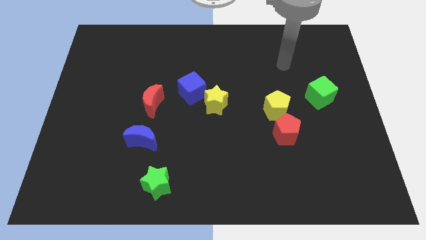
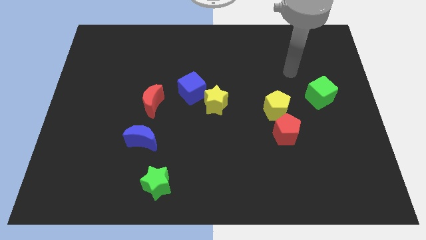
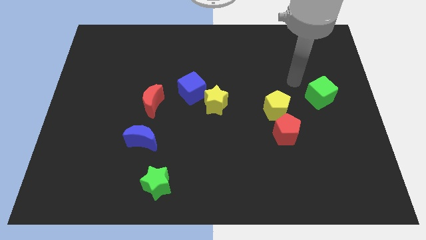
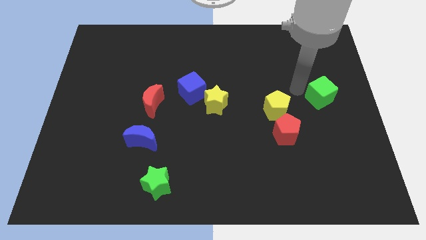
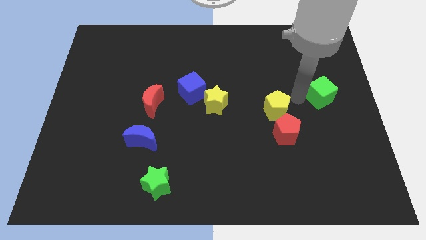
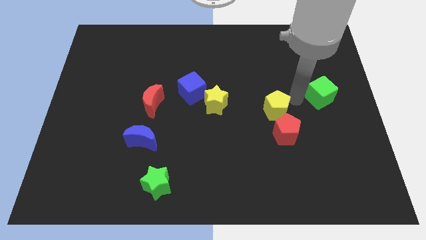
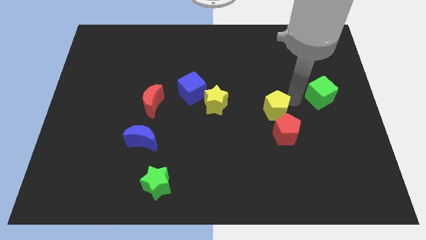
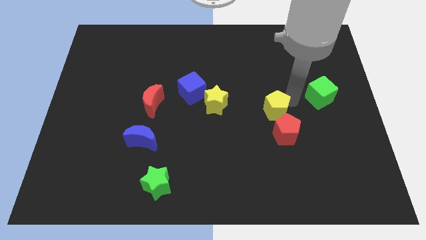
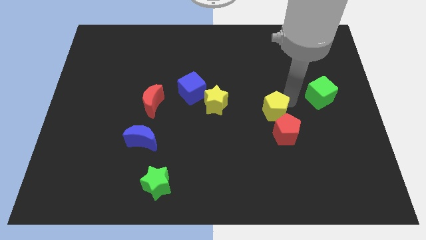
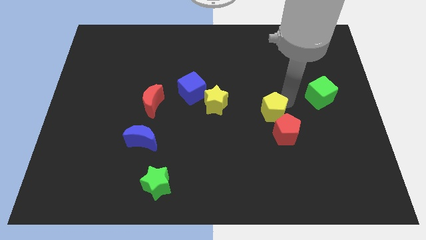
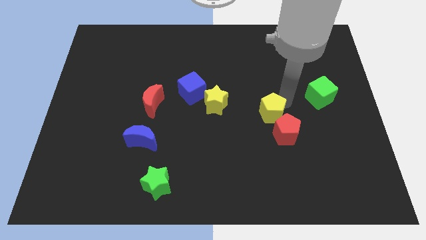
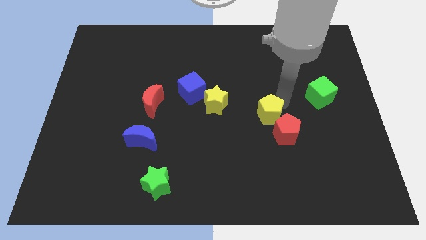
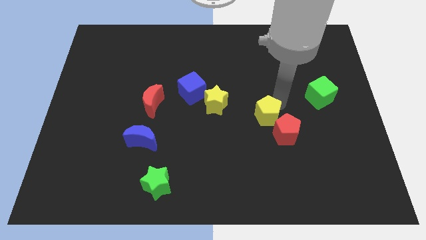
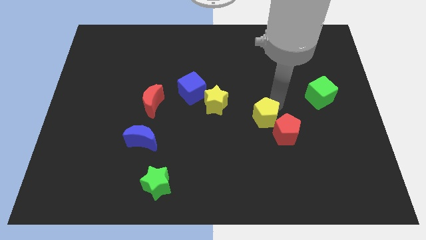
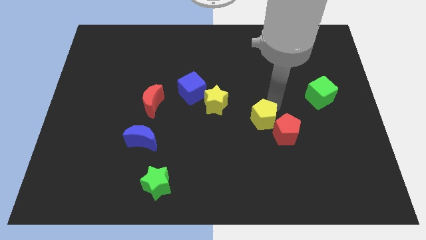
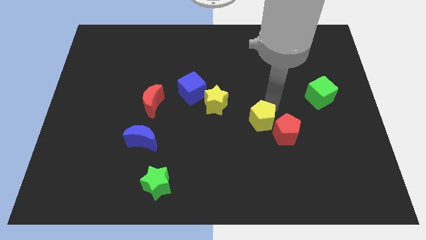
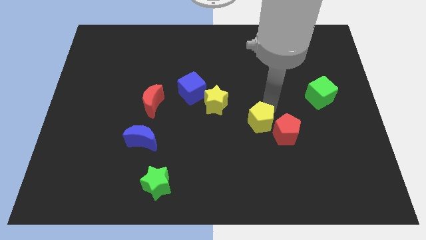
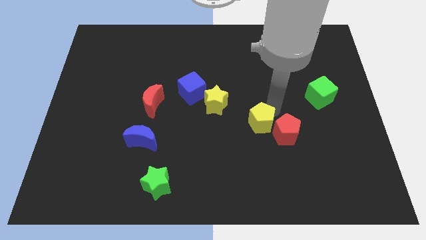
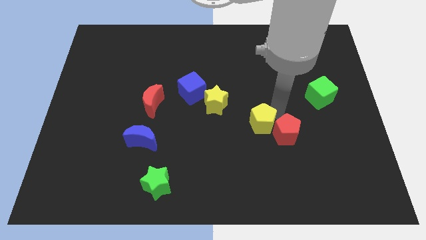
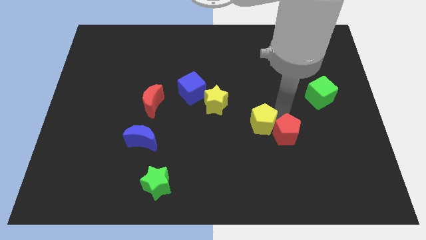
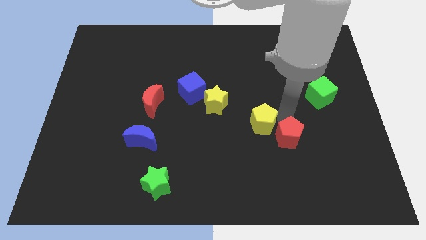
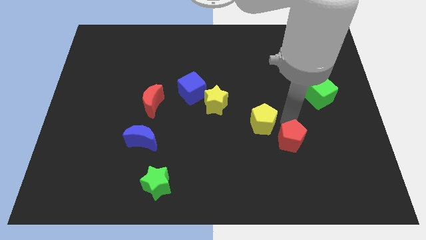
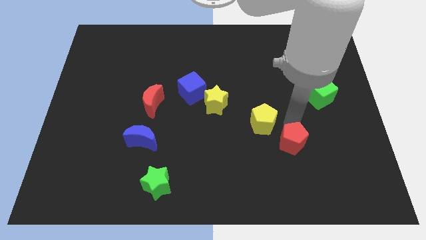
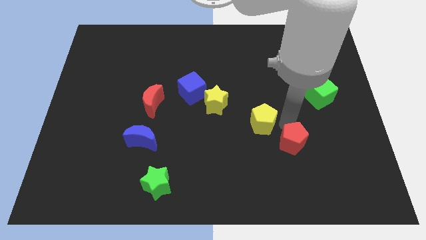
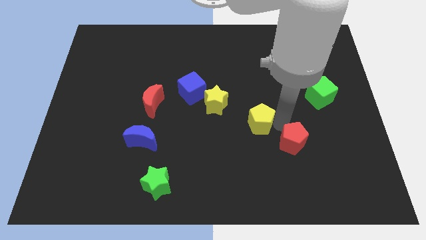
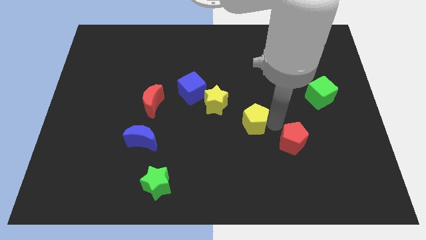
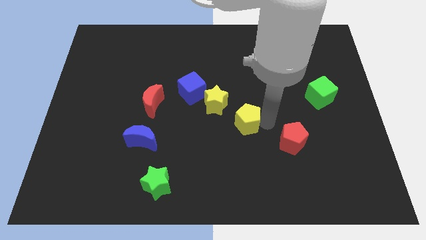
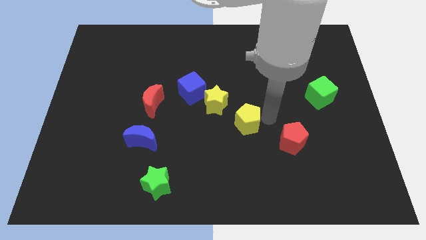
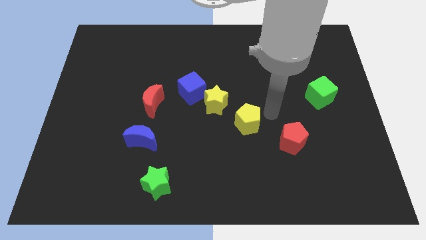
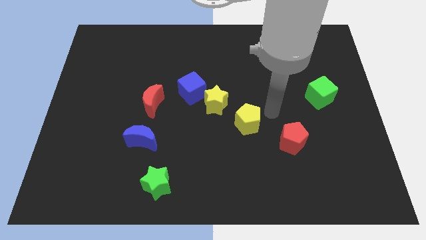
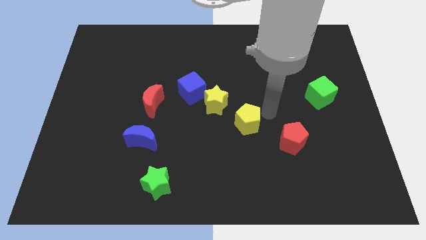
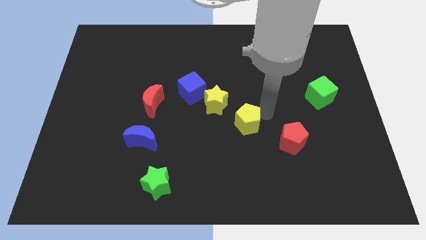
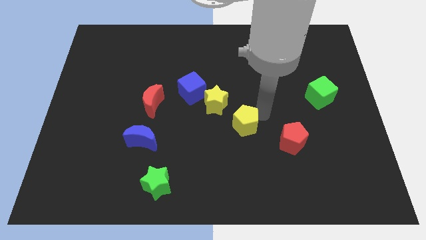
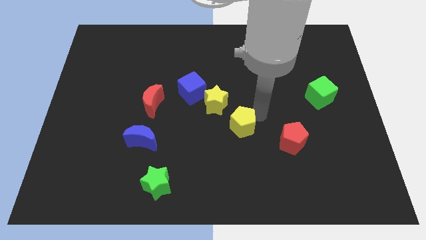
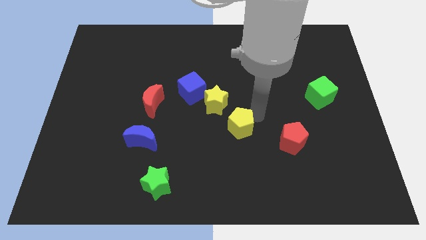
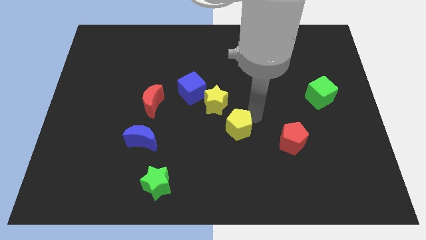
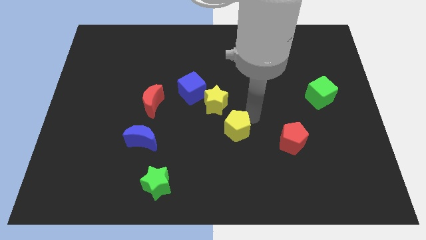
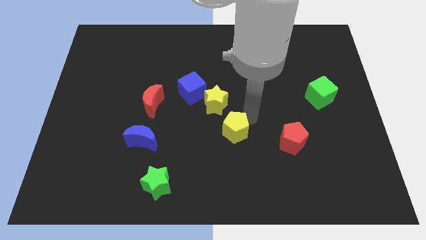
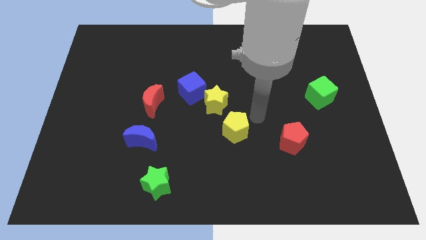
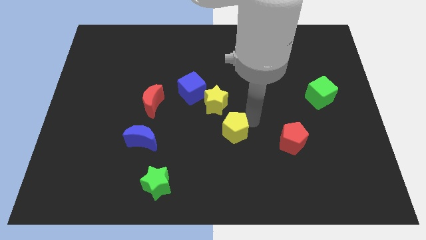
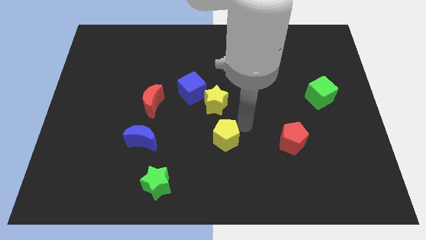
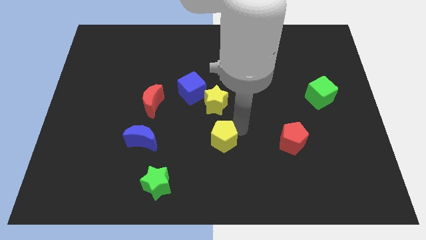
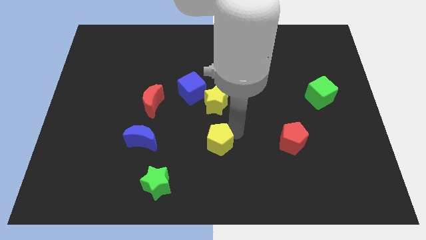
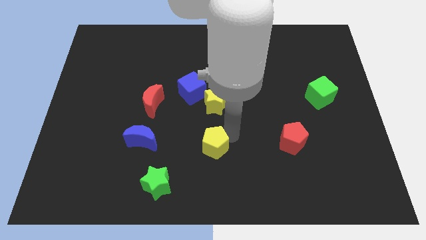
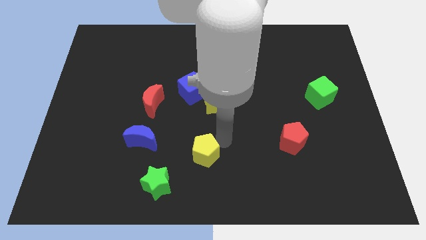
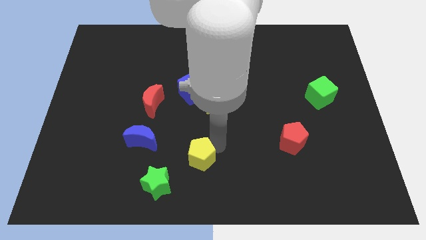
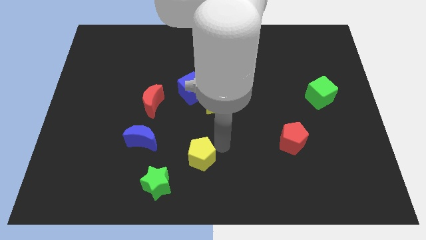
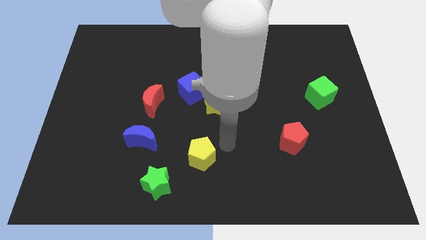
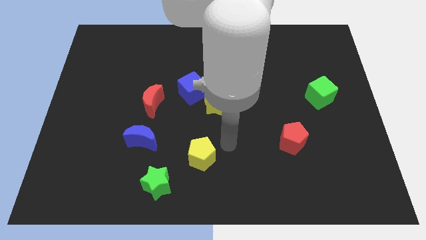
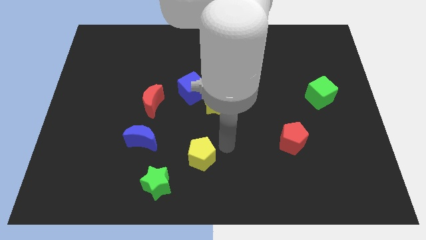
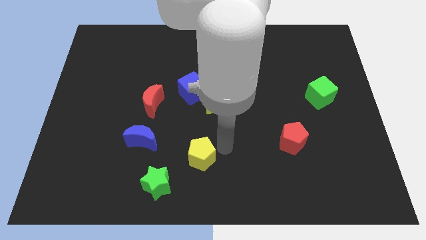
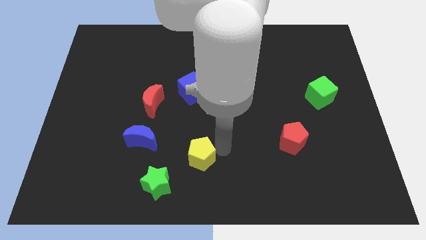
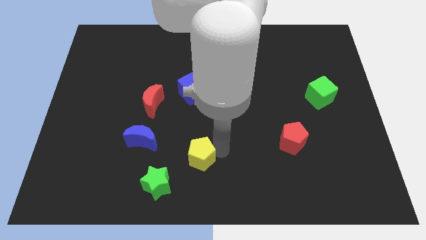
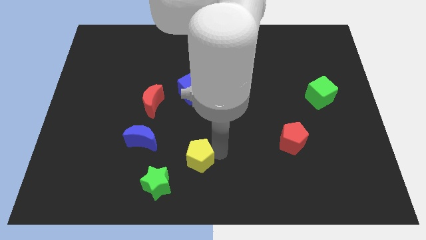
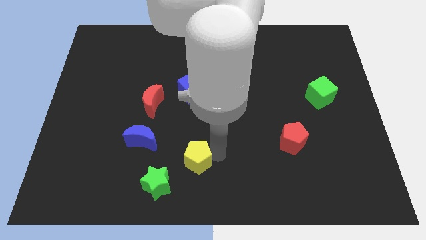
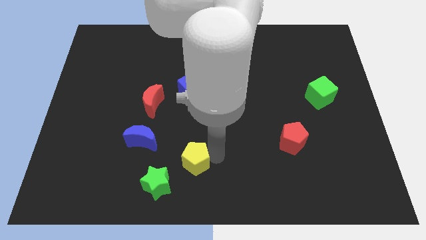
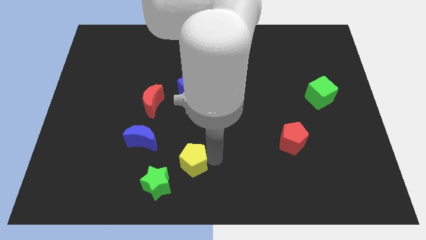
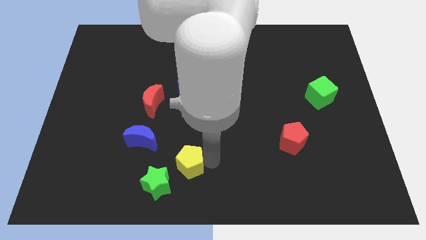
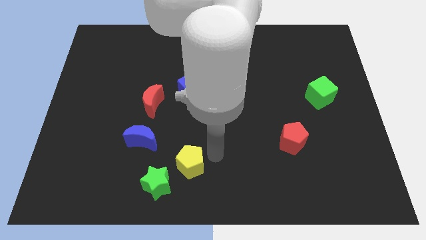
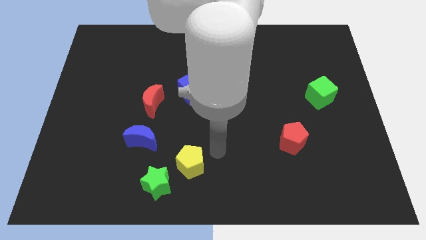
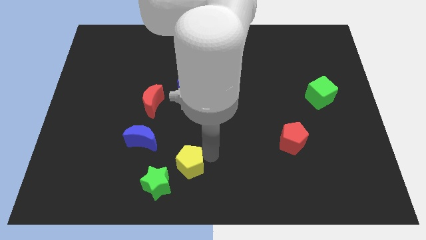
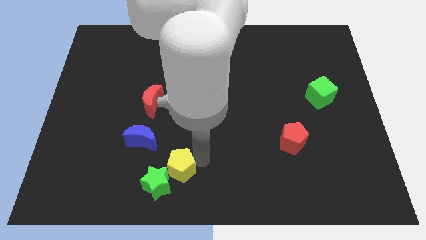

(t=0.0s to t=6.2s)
move the yellow pentagon next to the green star

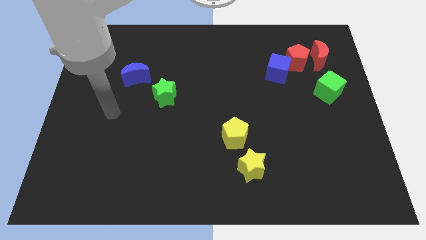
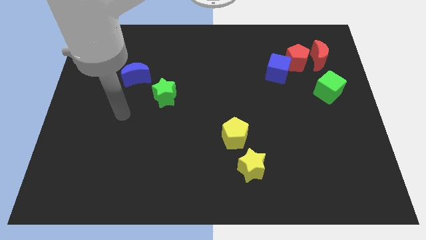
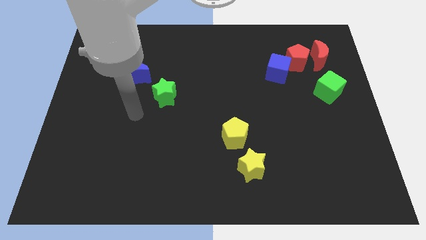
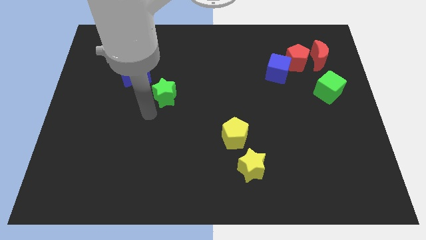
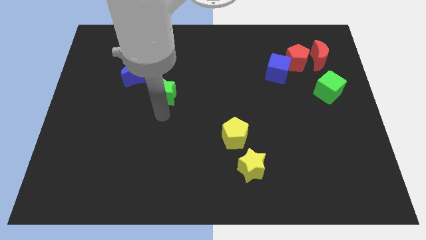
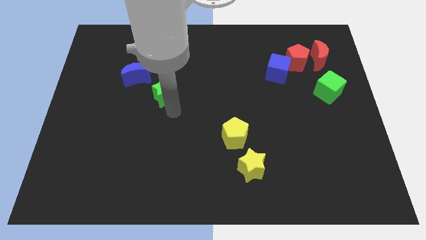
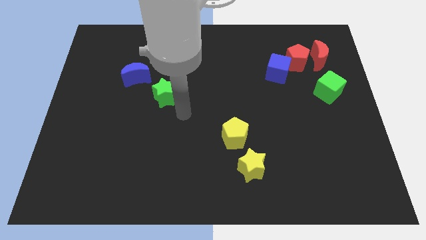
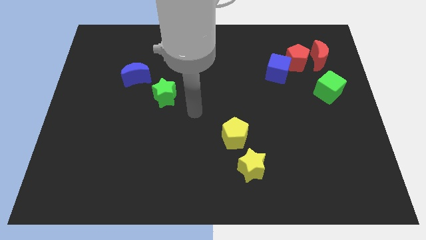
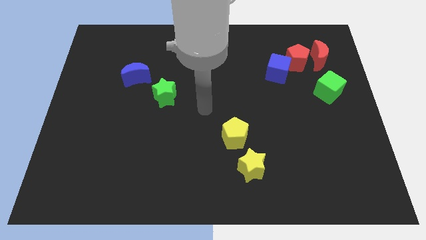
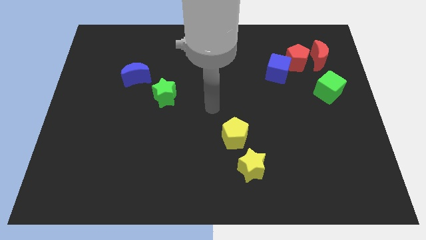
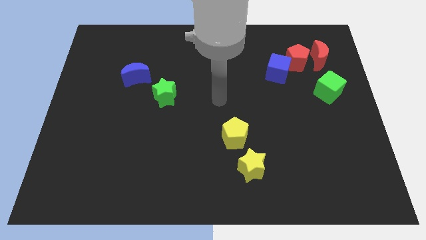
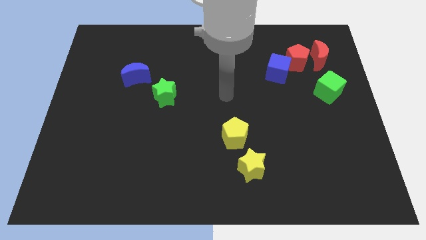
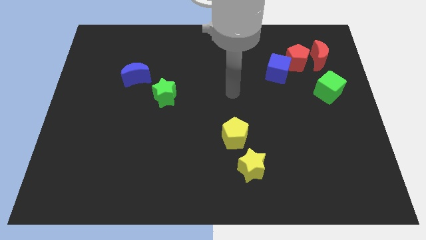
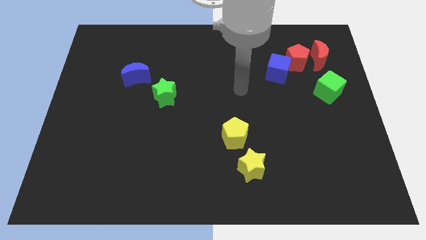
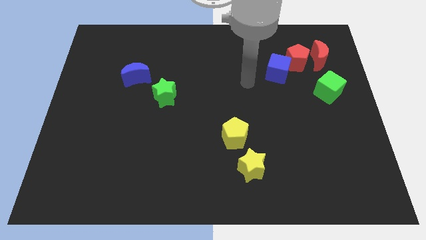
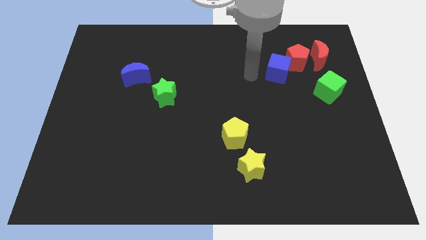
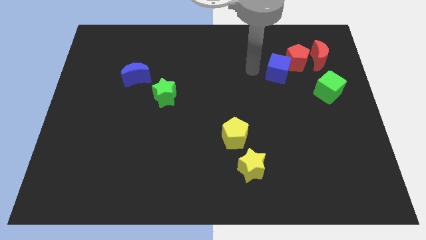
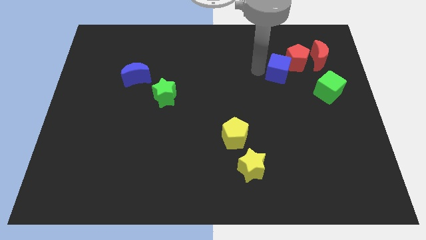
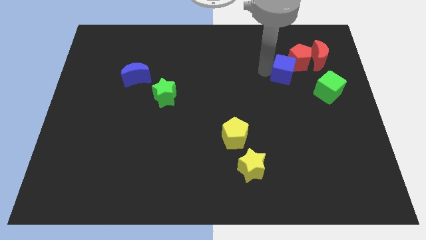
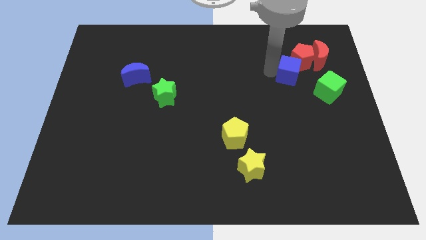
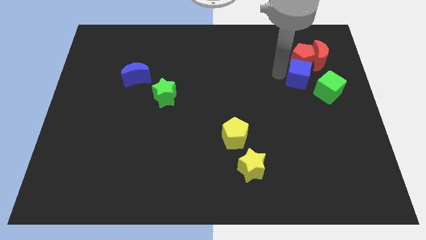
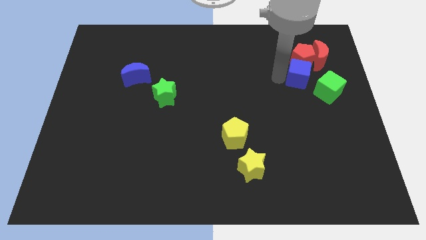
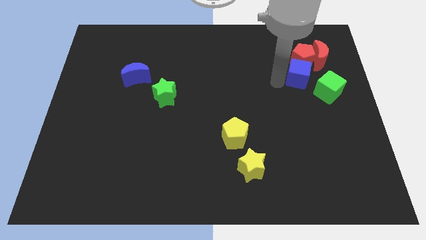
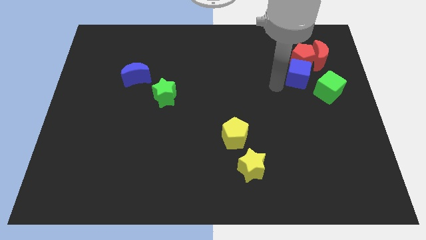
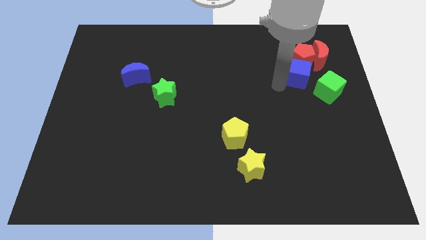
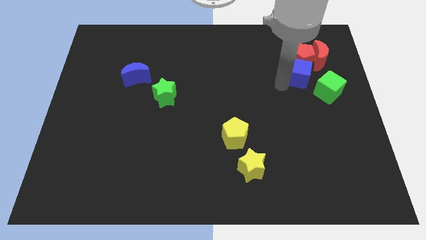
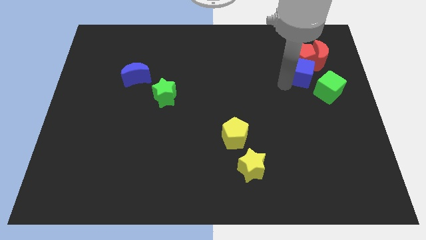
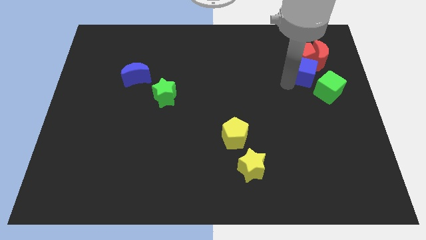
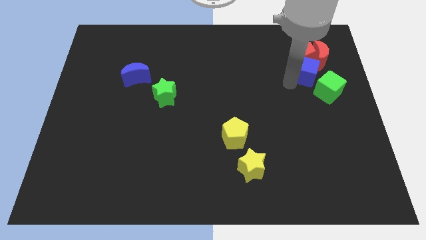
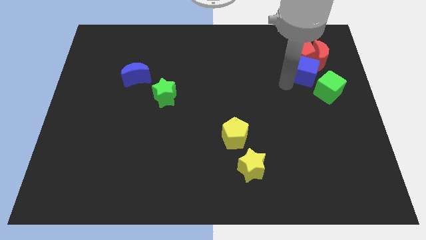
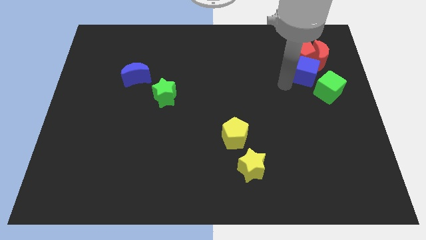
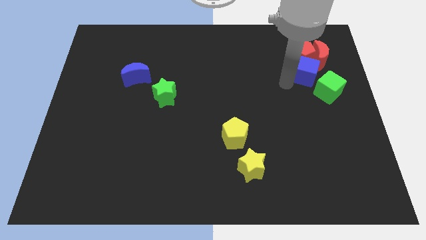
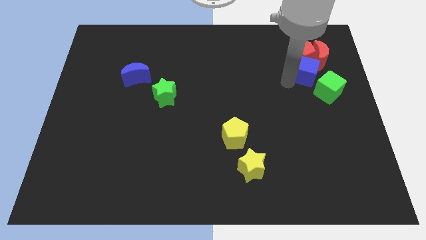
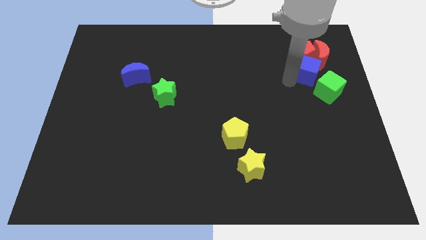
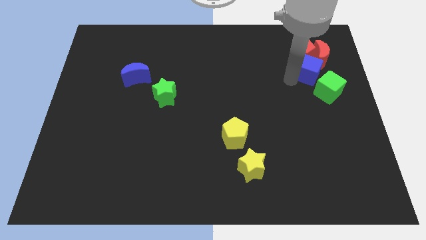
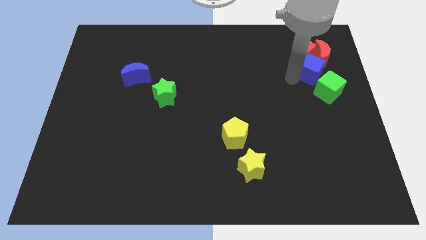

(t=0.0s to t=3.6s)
move the blue cube to the red moon
